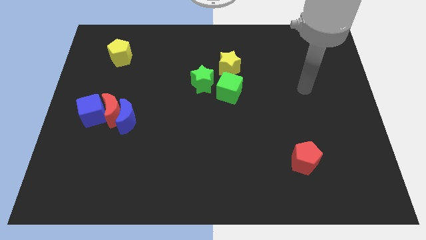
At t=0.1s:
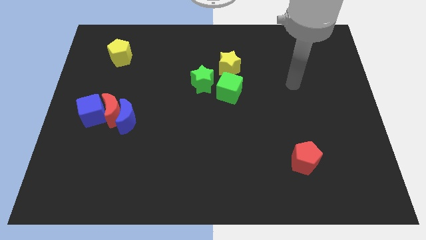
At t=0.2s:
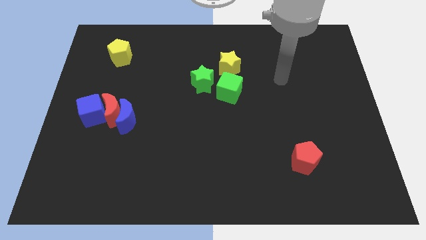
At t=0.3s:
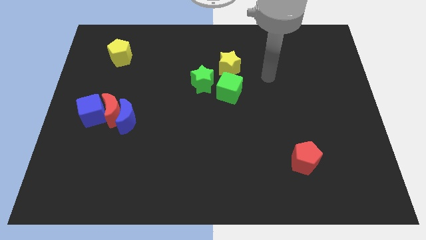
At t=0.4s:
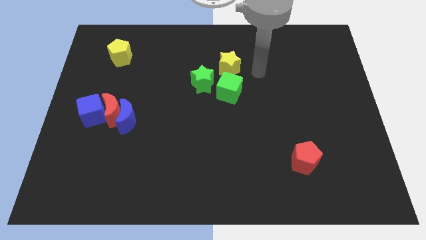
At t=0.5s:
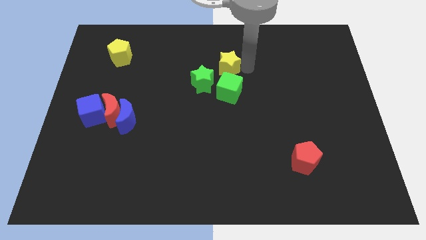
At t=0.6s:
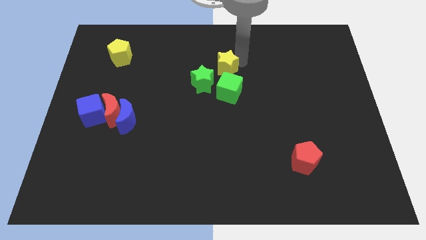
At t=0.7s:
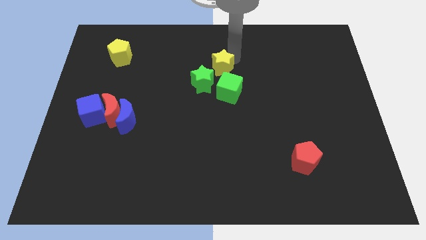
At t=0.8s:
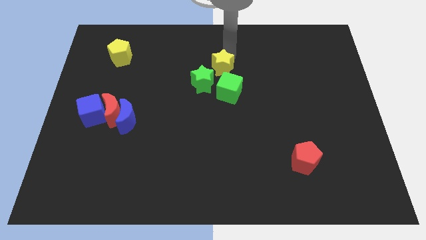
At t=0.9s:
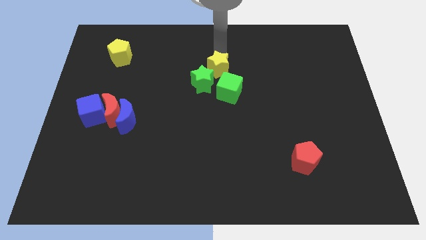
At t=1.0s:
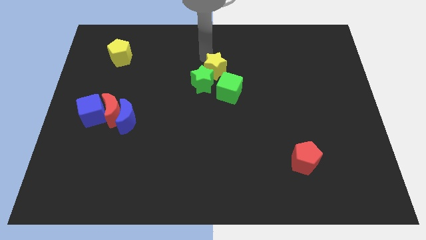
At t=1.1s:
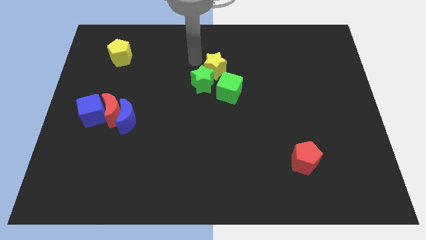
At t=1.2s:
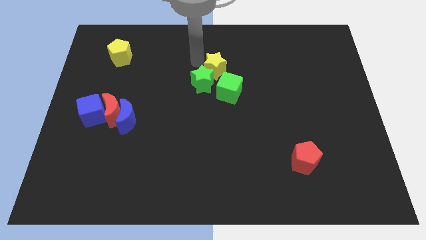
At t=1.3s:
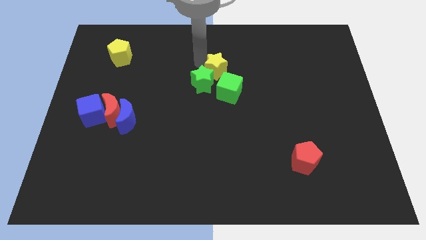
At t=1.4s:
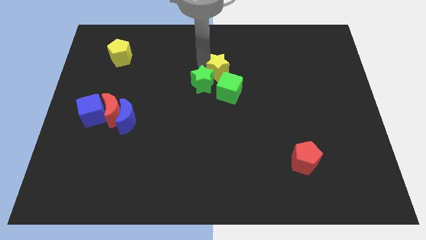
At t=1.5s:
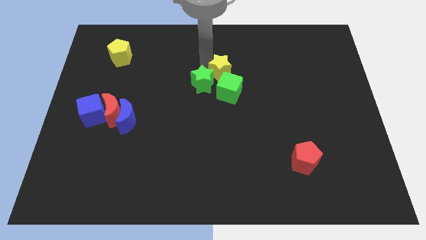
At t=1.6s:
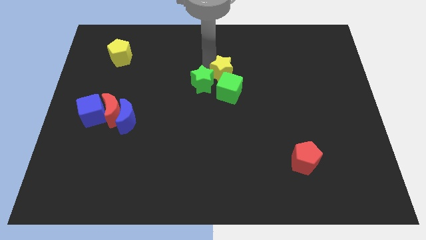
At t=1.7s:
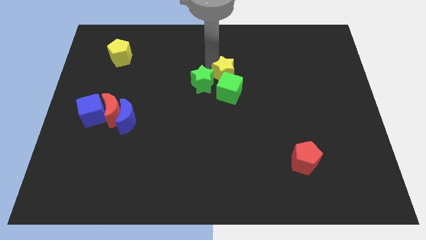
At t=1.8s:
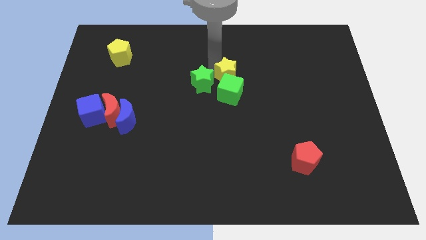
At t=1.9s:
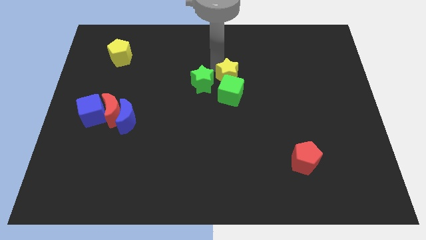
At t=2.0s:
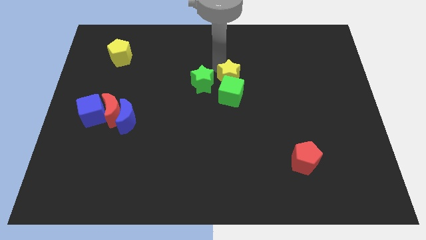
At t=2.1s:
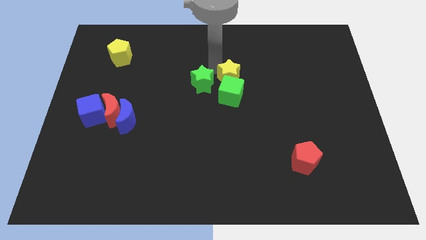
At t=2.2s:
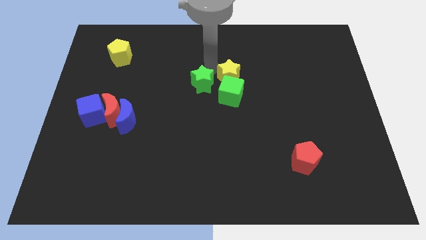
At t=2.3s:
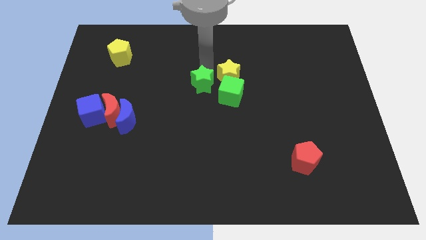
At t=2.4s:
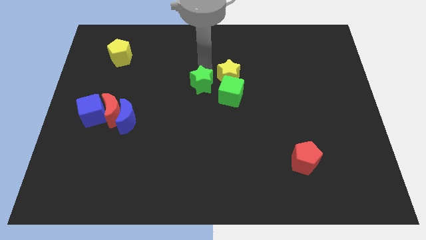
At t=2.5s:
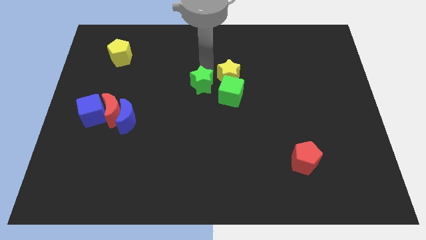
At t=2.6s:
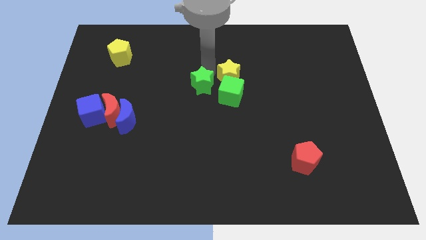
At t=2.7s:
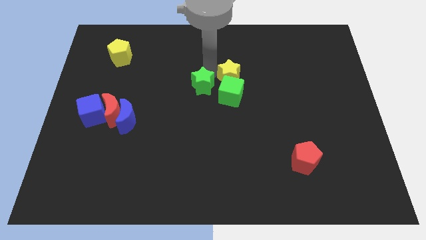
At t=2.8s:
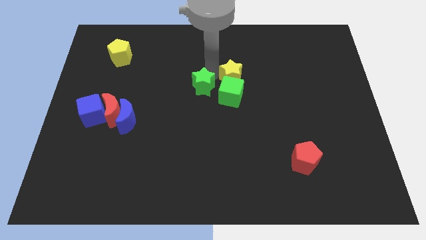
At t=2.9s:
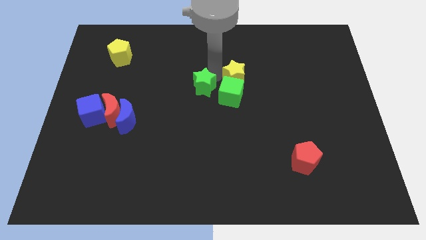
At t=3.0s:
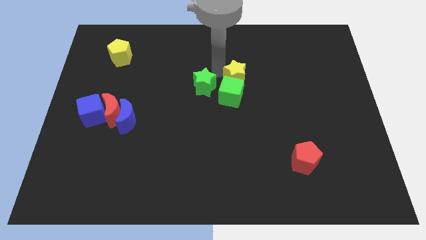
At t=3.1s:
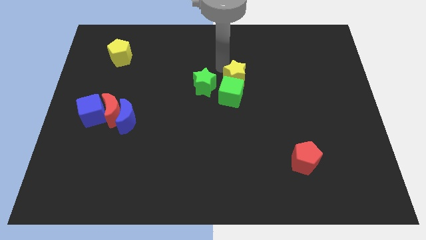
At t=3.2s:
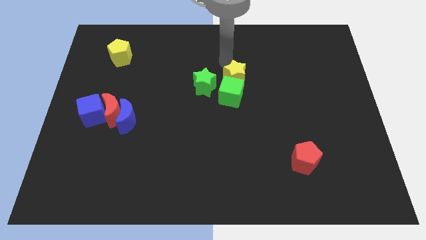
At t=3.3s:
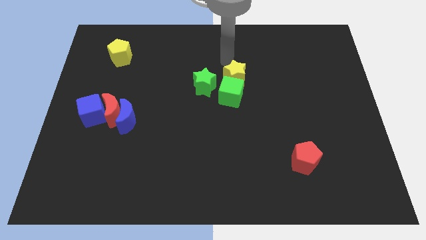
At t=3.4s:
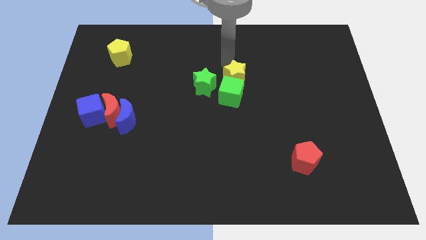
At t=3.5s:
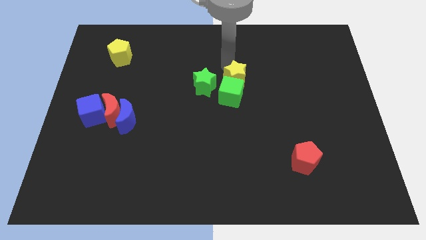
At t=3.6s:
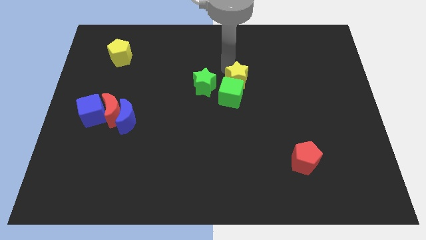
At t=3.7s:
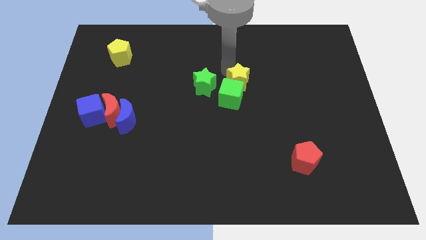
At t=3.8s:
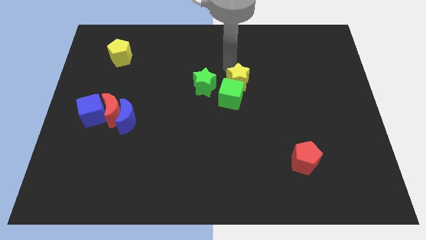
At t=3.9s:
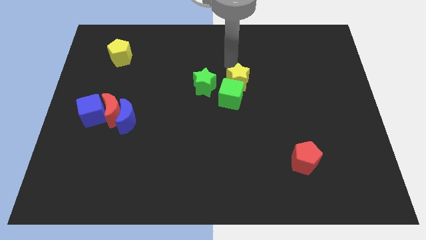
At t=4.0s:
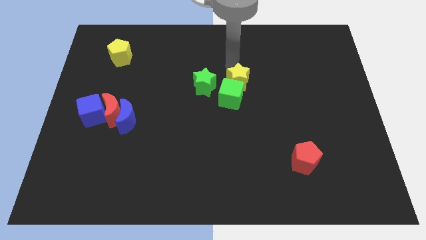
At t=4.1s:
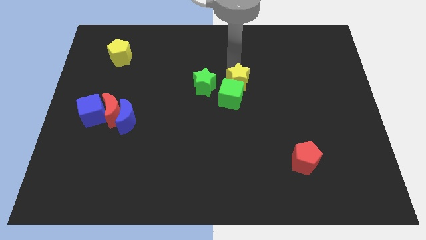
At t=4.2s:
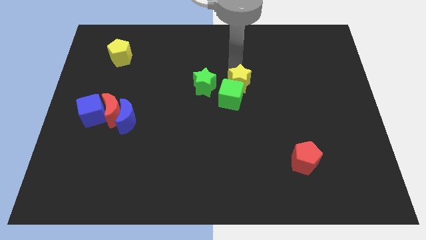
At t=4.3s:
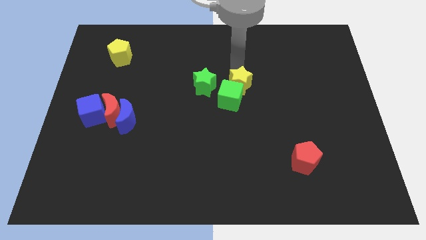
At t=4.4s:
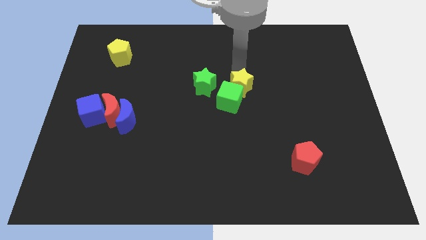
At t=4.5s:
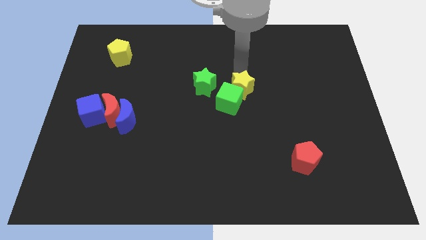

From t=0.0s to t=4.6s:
slightly push the yellow star down

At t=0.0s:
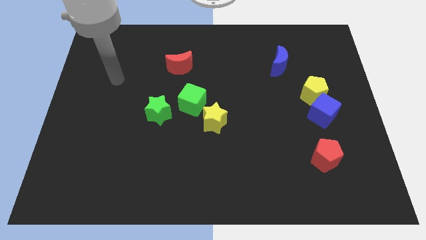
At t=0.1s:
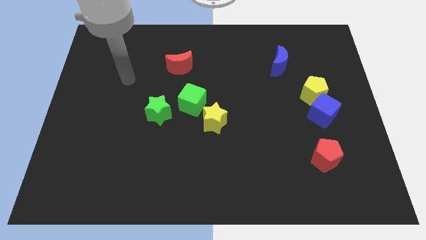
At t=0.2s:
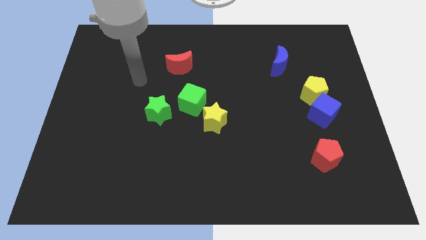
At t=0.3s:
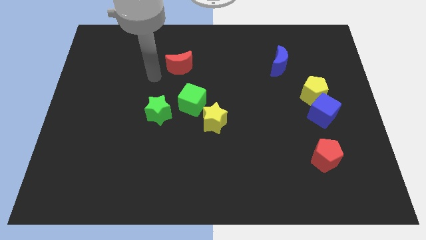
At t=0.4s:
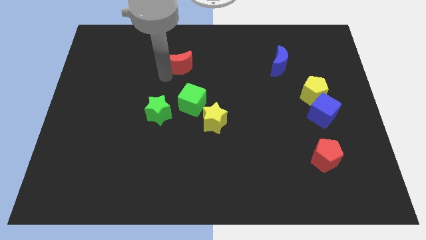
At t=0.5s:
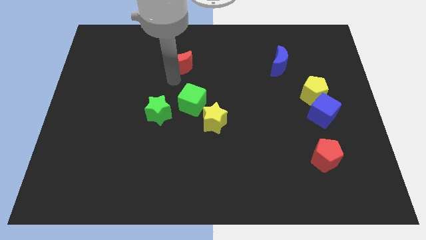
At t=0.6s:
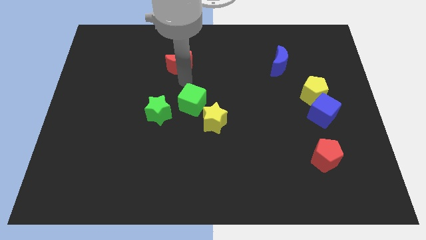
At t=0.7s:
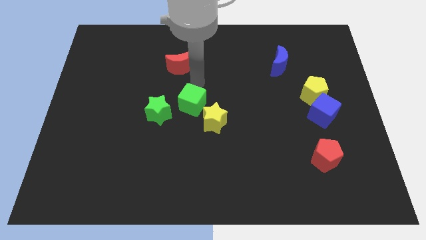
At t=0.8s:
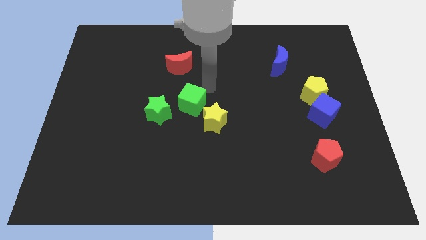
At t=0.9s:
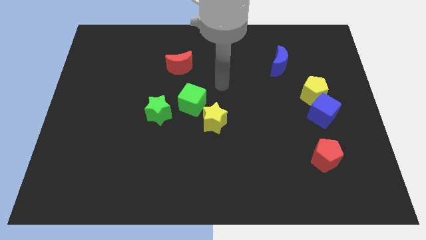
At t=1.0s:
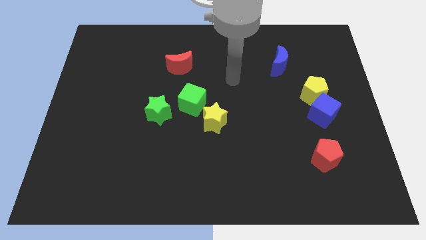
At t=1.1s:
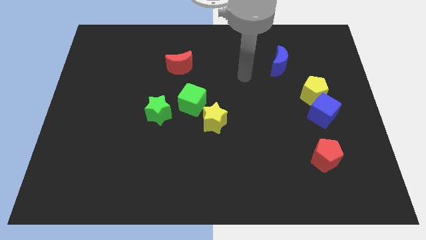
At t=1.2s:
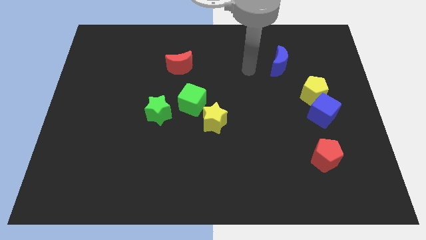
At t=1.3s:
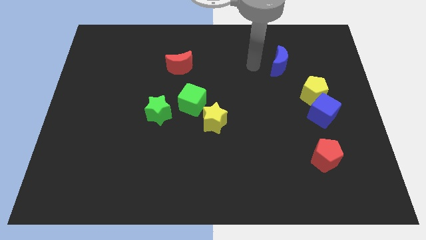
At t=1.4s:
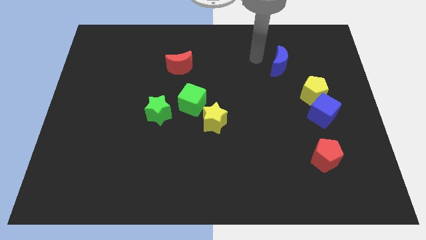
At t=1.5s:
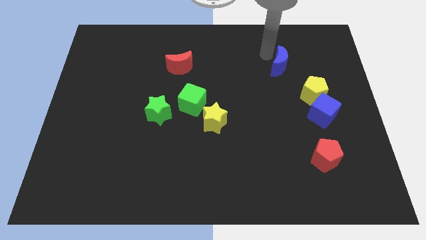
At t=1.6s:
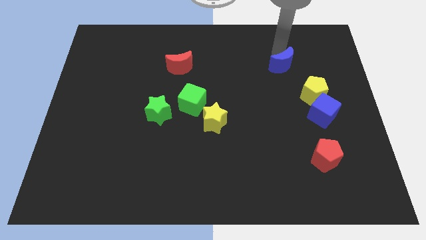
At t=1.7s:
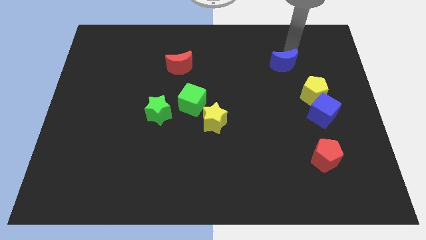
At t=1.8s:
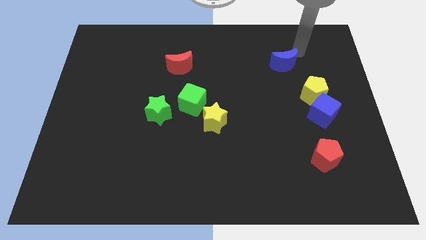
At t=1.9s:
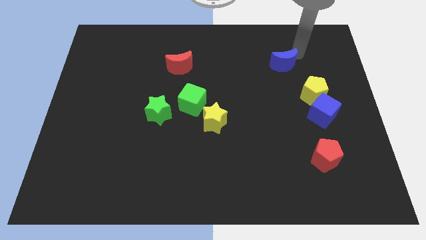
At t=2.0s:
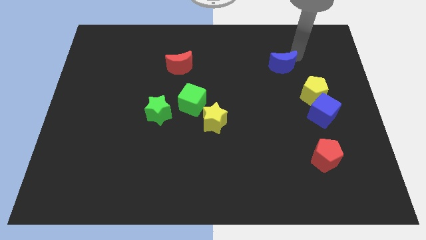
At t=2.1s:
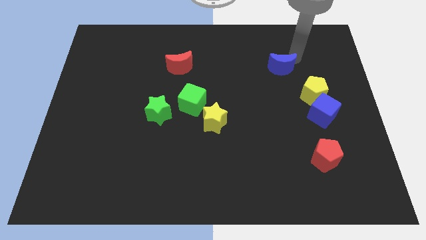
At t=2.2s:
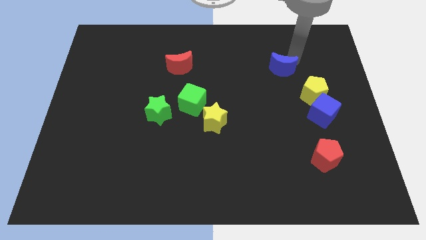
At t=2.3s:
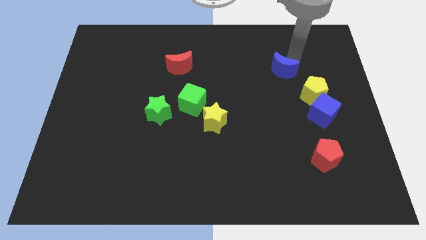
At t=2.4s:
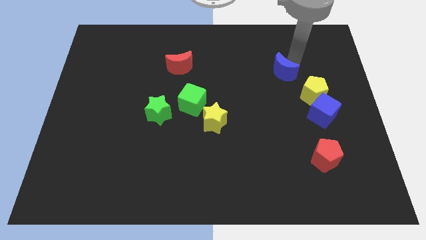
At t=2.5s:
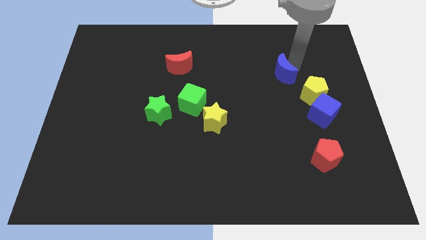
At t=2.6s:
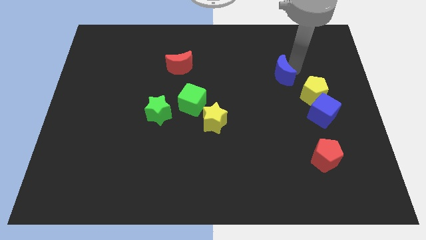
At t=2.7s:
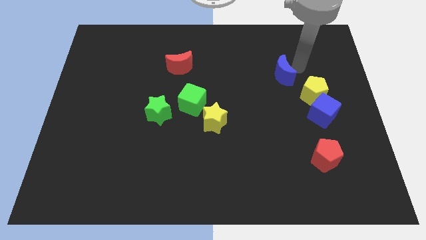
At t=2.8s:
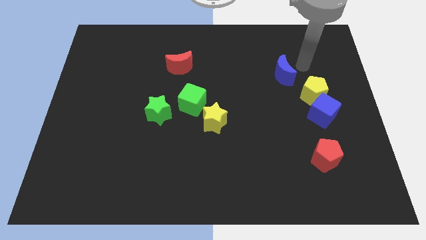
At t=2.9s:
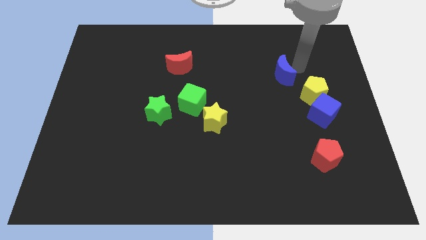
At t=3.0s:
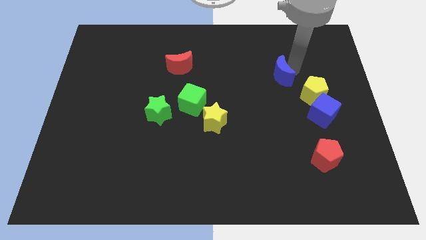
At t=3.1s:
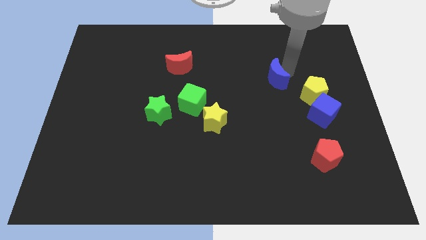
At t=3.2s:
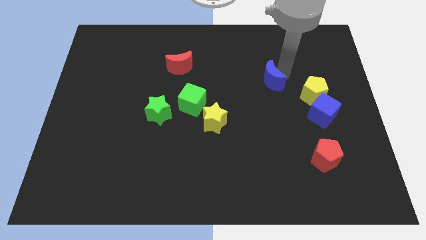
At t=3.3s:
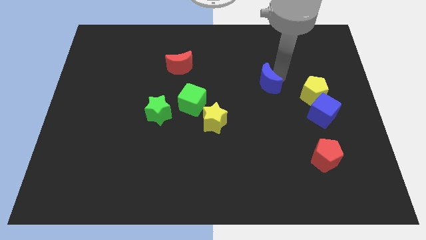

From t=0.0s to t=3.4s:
move the blue moon downwards and then left a bit
